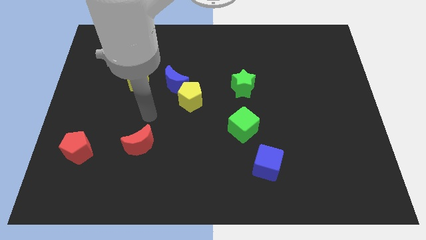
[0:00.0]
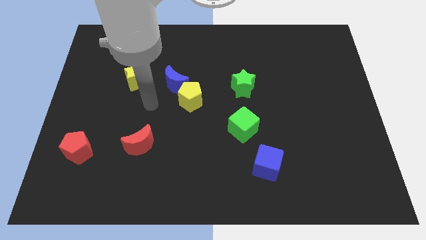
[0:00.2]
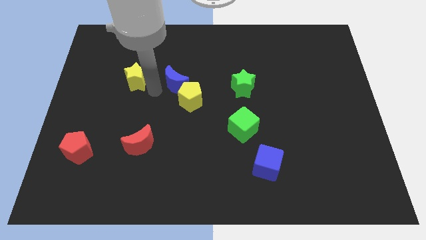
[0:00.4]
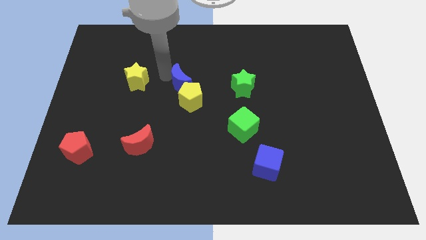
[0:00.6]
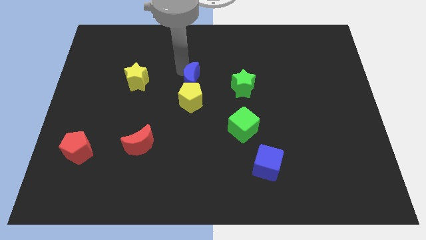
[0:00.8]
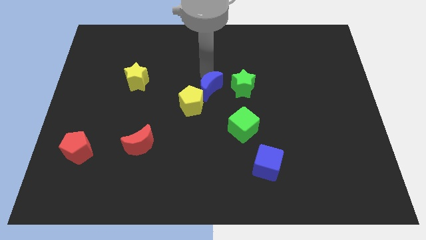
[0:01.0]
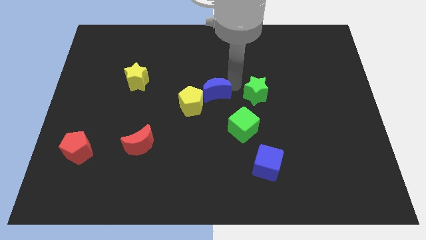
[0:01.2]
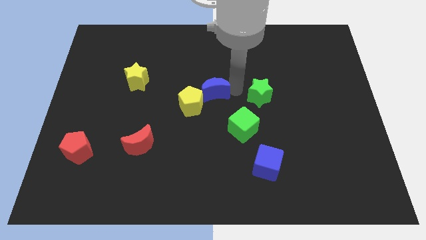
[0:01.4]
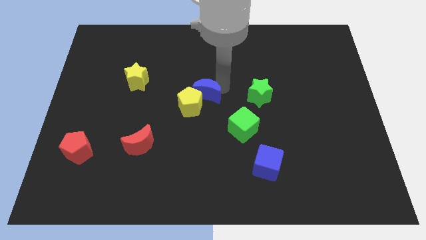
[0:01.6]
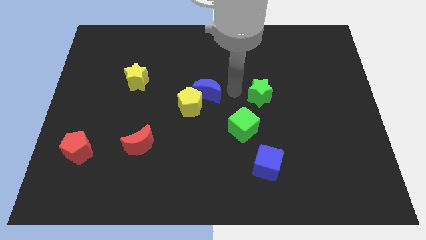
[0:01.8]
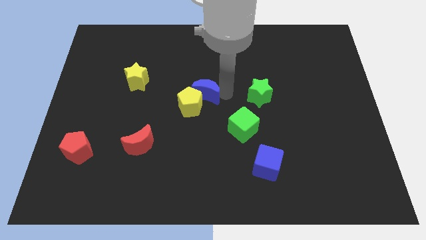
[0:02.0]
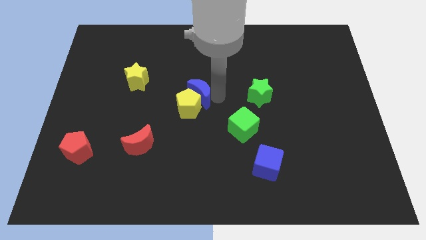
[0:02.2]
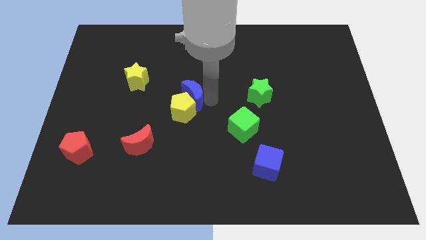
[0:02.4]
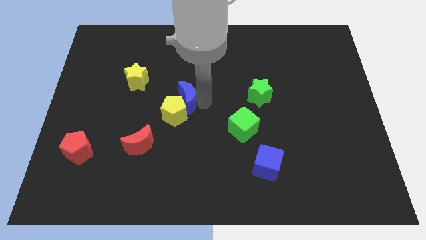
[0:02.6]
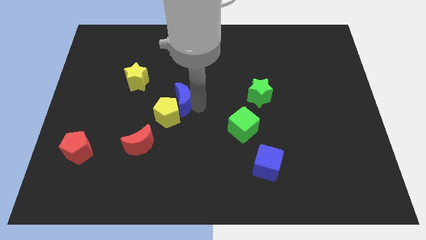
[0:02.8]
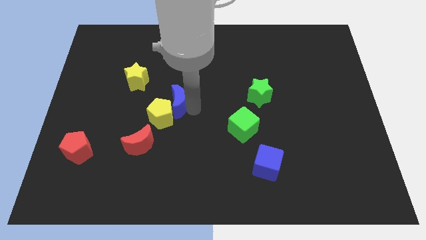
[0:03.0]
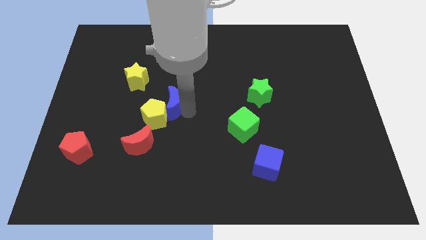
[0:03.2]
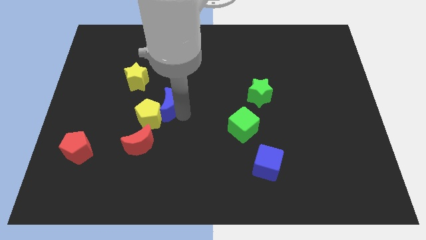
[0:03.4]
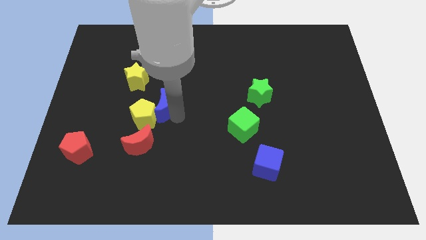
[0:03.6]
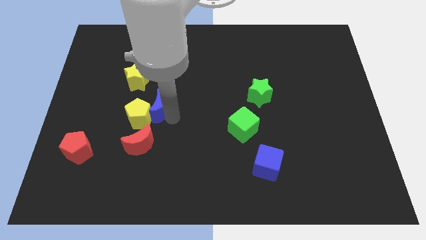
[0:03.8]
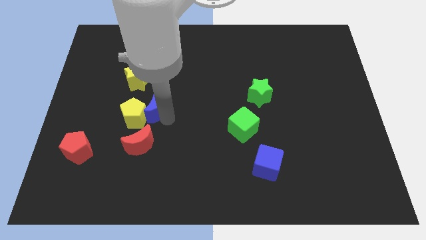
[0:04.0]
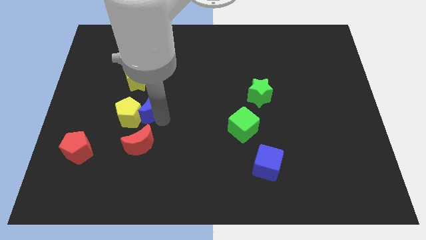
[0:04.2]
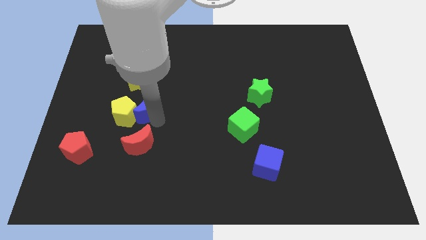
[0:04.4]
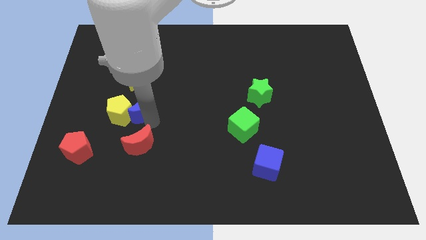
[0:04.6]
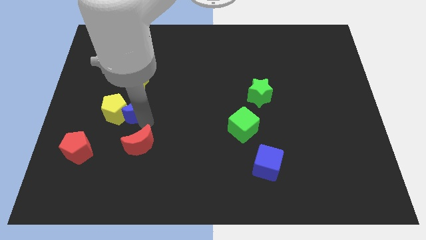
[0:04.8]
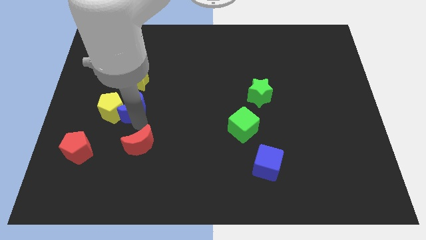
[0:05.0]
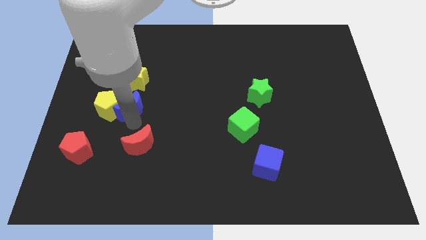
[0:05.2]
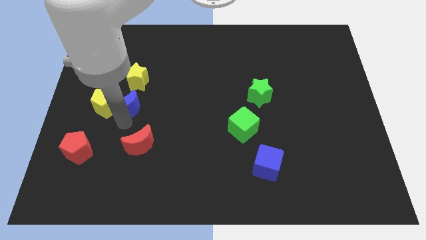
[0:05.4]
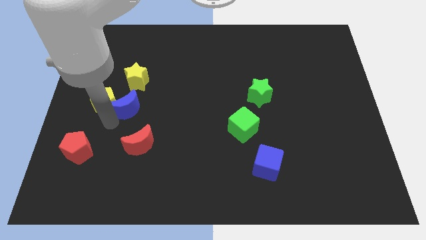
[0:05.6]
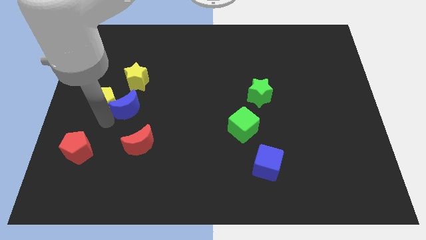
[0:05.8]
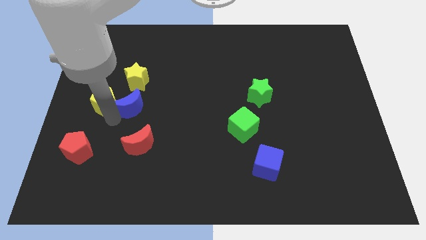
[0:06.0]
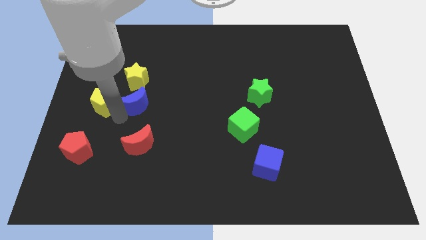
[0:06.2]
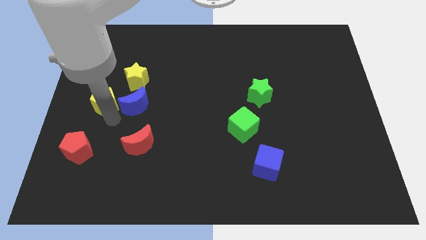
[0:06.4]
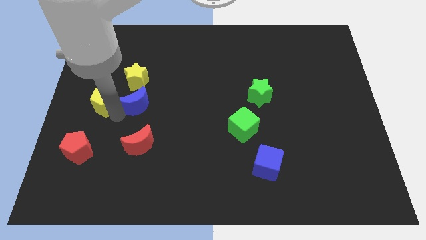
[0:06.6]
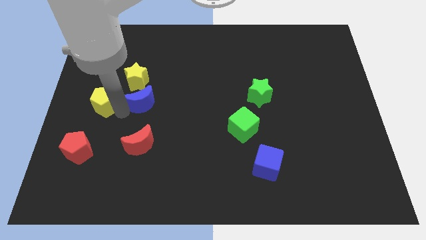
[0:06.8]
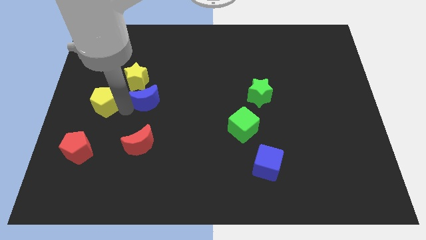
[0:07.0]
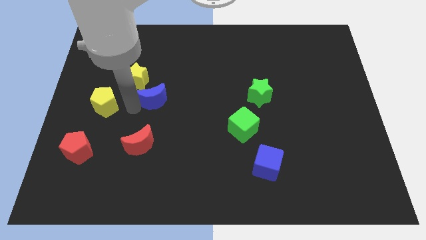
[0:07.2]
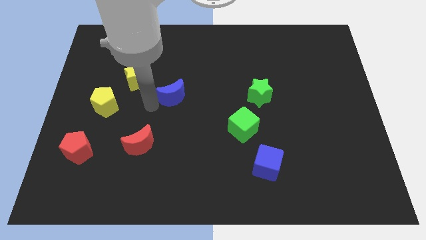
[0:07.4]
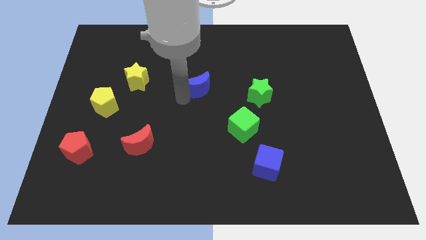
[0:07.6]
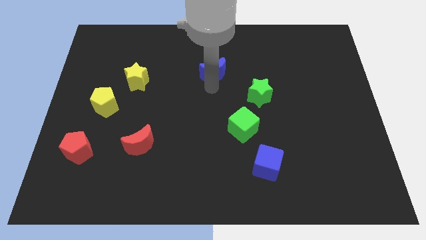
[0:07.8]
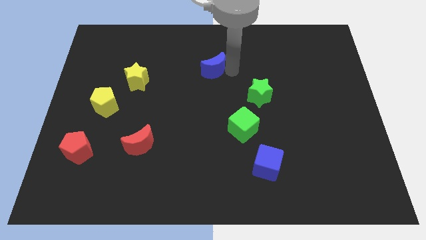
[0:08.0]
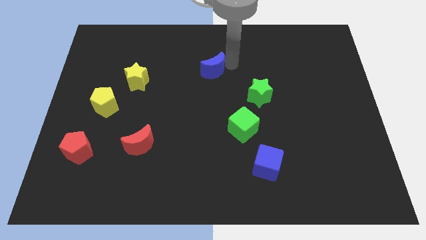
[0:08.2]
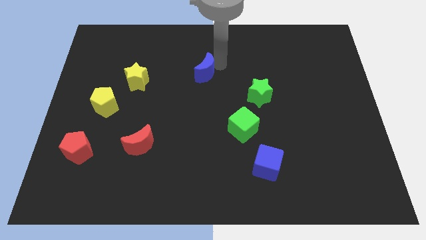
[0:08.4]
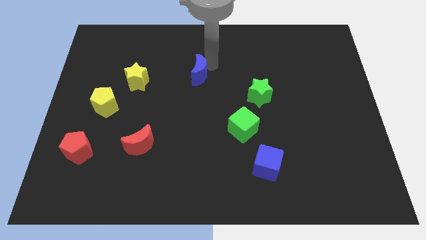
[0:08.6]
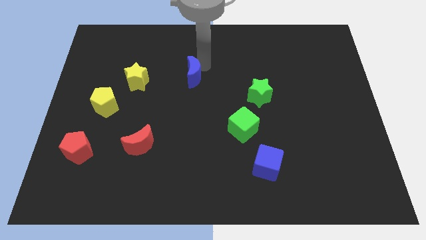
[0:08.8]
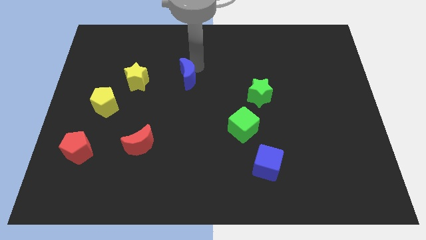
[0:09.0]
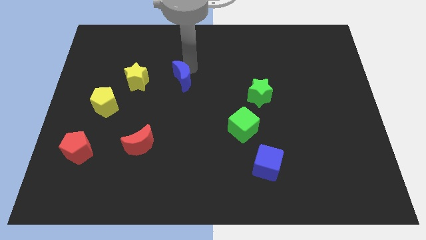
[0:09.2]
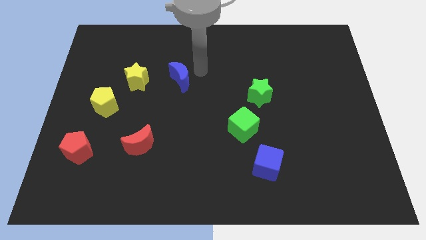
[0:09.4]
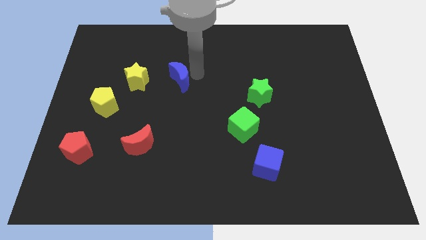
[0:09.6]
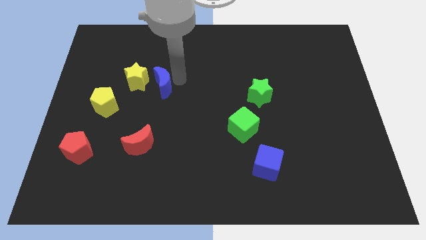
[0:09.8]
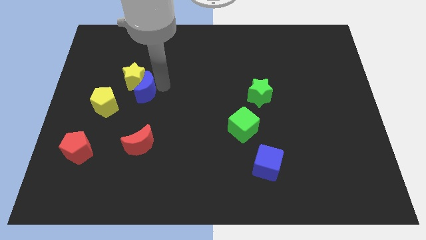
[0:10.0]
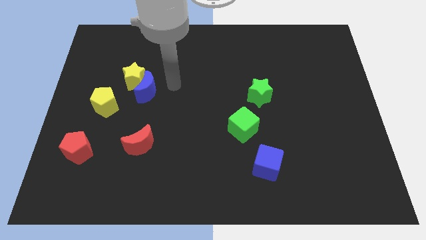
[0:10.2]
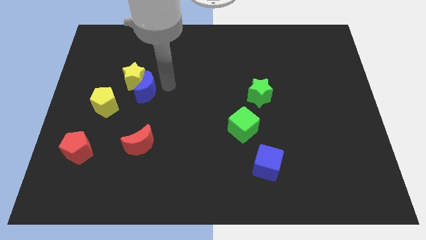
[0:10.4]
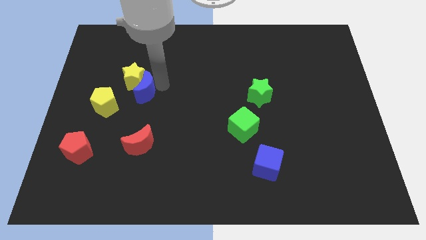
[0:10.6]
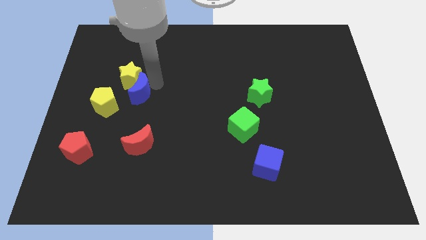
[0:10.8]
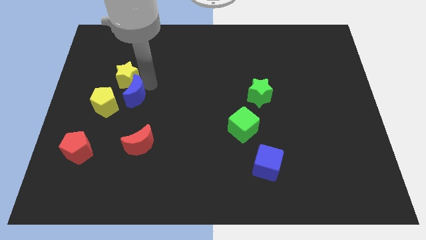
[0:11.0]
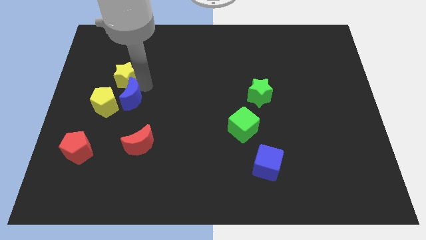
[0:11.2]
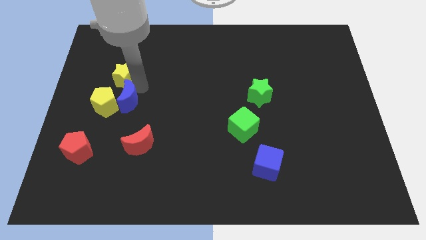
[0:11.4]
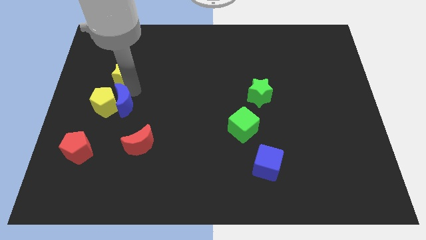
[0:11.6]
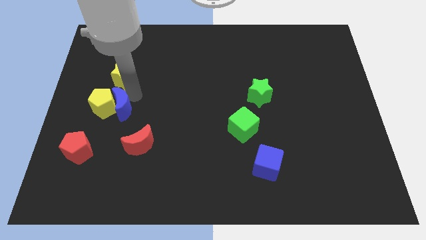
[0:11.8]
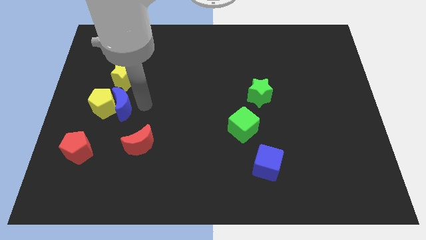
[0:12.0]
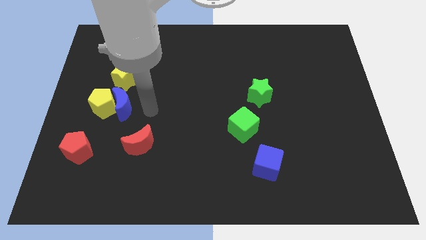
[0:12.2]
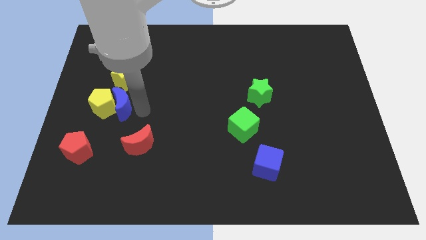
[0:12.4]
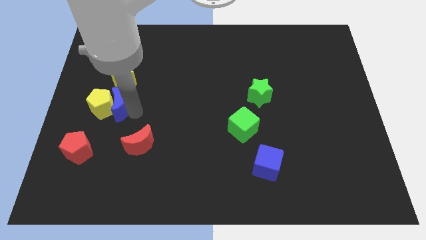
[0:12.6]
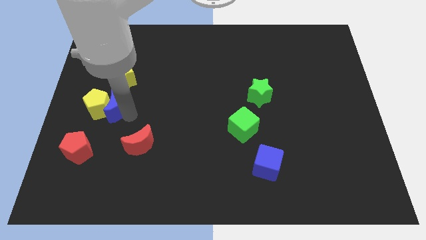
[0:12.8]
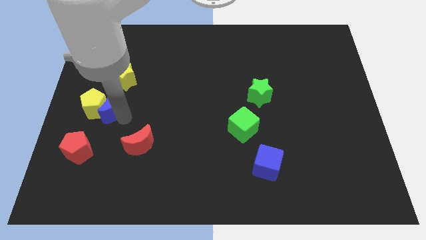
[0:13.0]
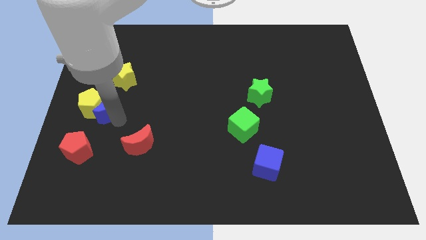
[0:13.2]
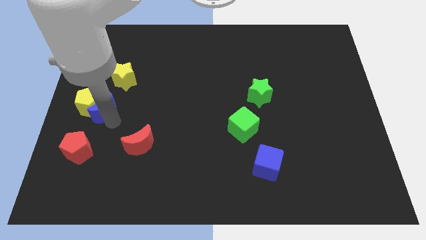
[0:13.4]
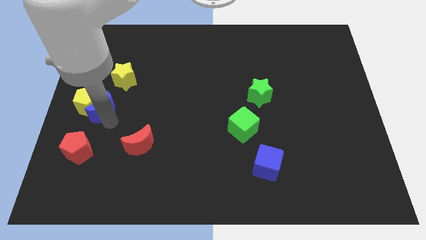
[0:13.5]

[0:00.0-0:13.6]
push the blue moon to the center left
